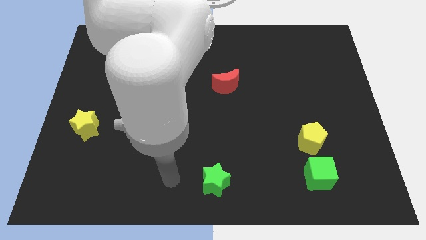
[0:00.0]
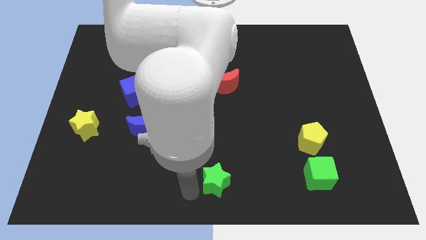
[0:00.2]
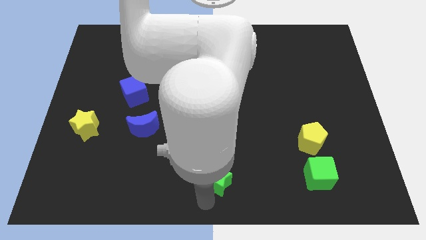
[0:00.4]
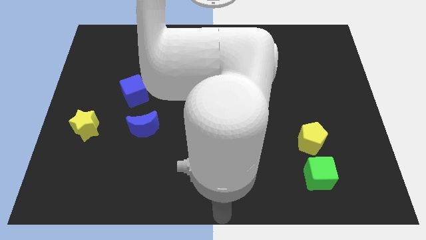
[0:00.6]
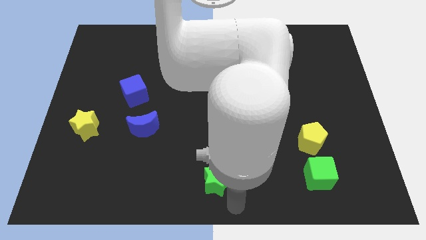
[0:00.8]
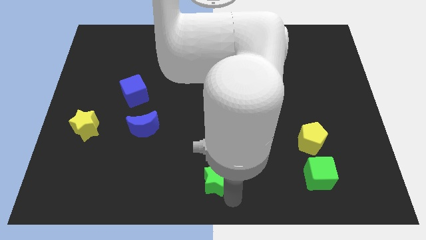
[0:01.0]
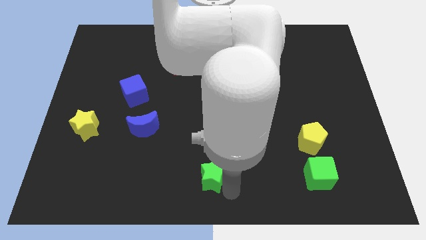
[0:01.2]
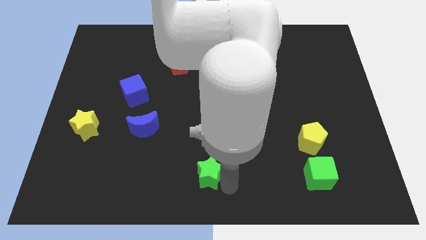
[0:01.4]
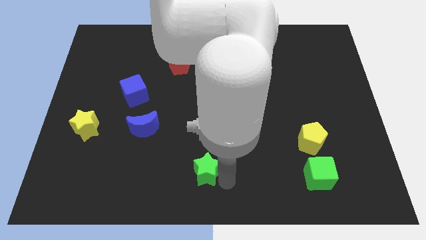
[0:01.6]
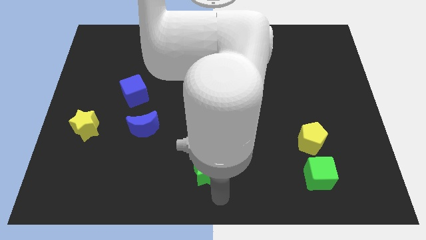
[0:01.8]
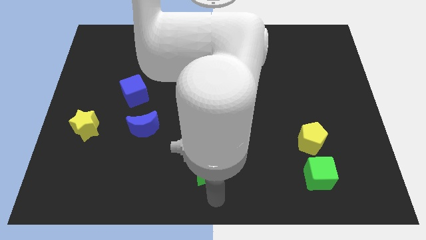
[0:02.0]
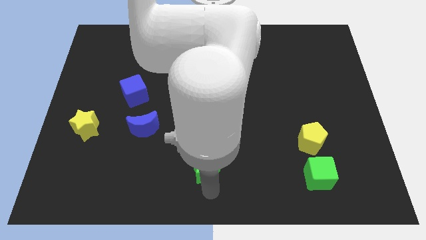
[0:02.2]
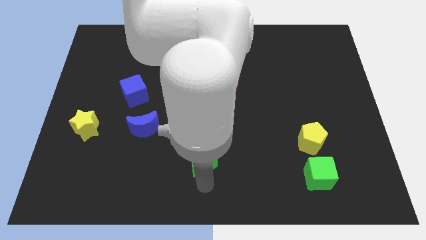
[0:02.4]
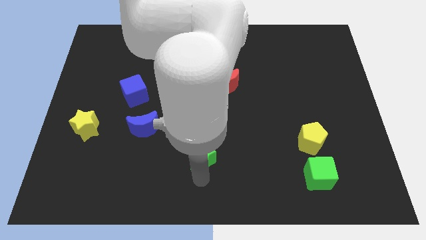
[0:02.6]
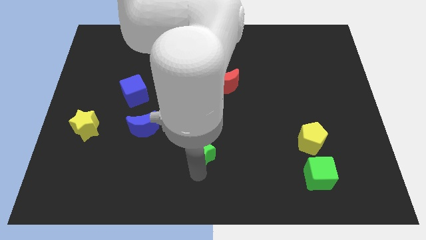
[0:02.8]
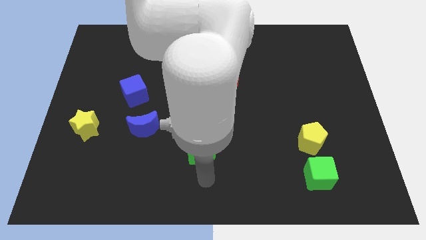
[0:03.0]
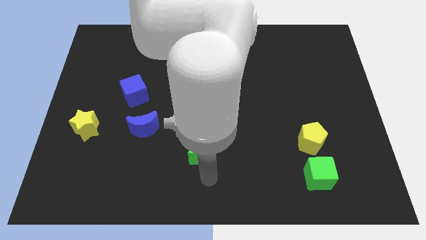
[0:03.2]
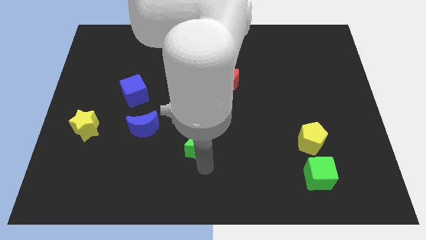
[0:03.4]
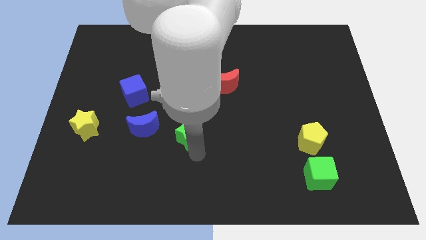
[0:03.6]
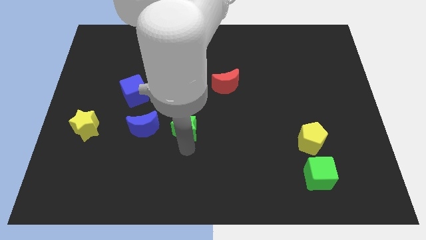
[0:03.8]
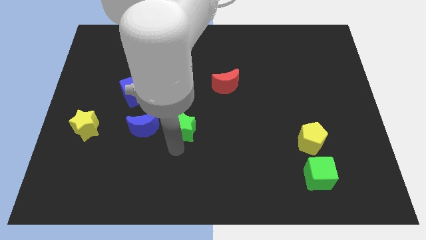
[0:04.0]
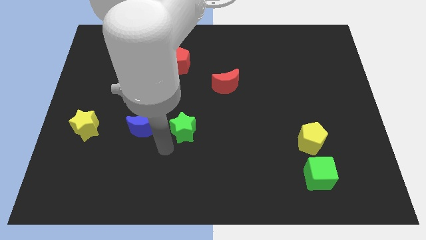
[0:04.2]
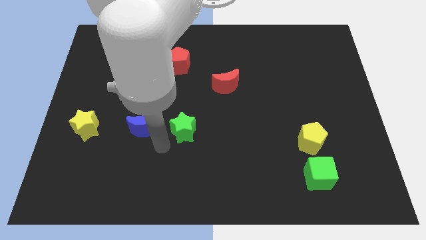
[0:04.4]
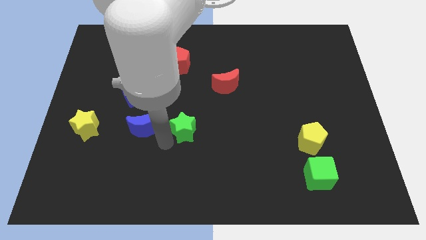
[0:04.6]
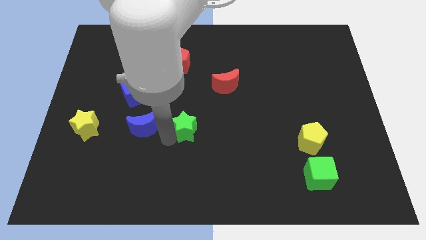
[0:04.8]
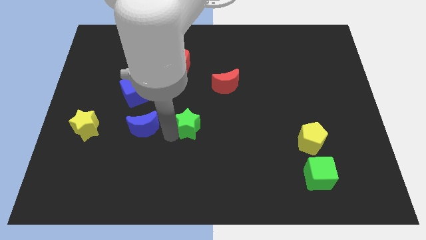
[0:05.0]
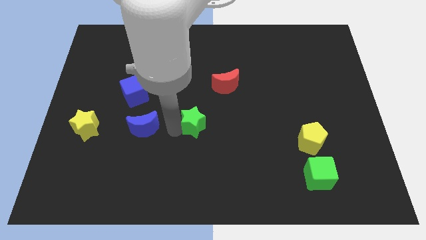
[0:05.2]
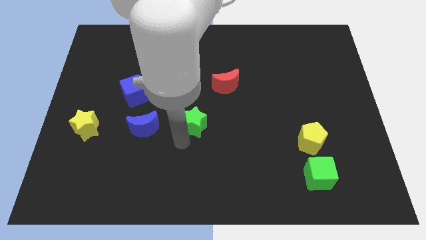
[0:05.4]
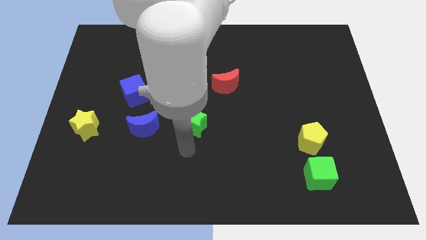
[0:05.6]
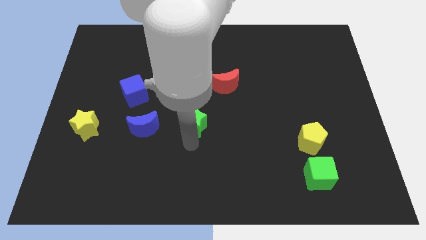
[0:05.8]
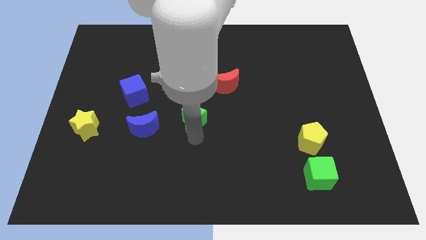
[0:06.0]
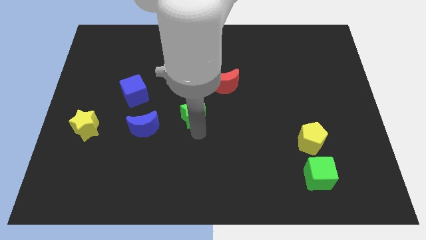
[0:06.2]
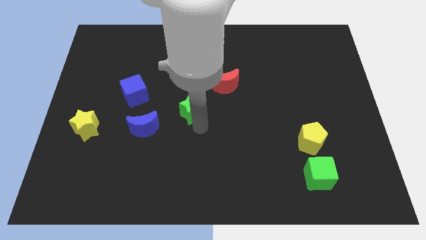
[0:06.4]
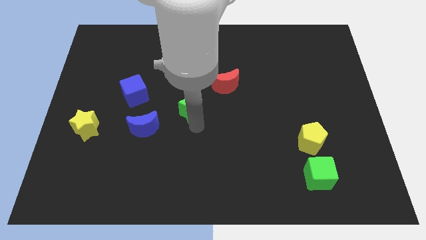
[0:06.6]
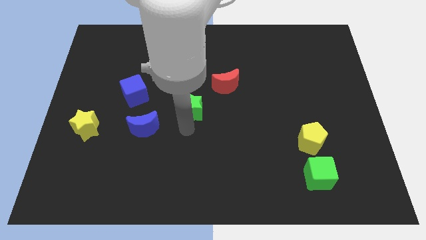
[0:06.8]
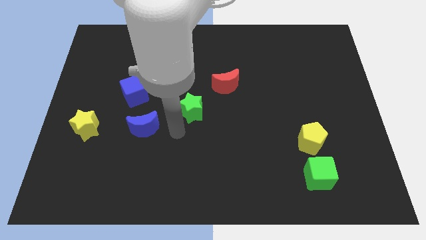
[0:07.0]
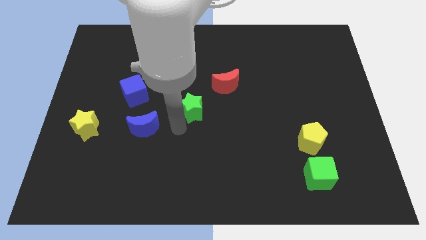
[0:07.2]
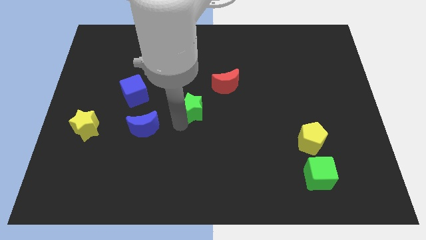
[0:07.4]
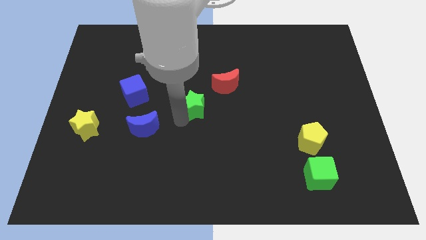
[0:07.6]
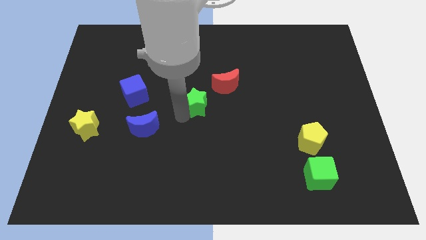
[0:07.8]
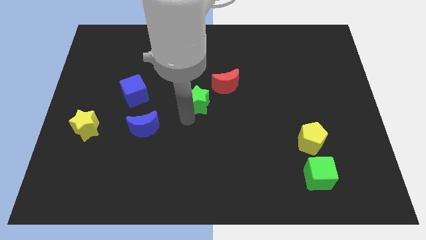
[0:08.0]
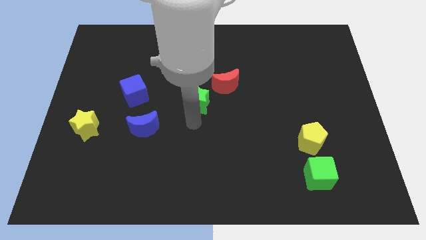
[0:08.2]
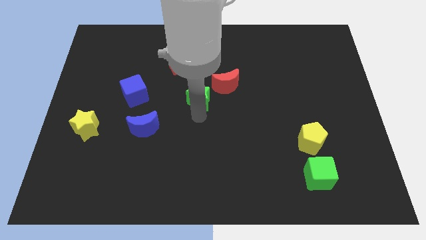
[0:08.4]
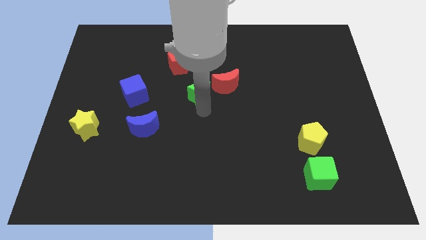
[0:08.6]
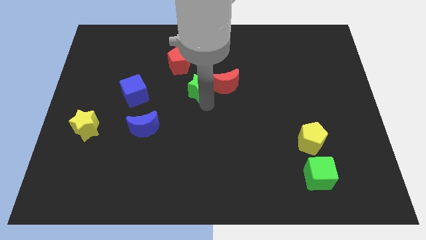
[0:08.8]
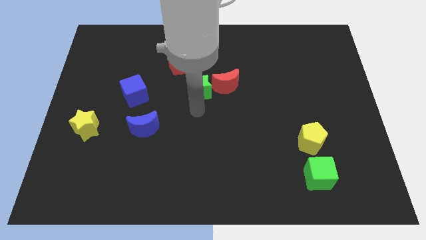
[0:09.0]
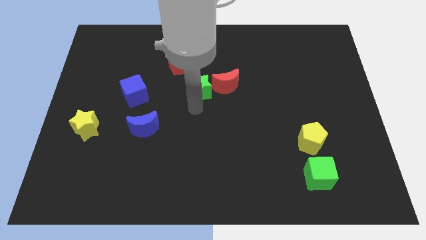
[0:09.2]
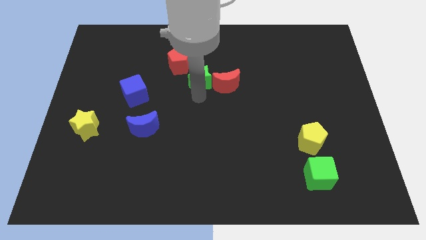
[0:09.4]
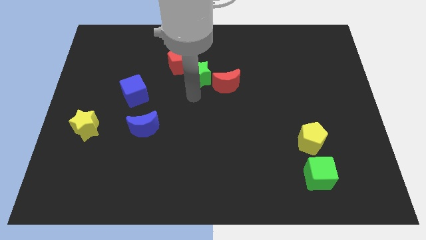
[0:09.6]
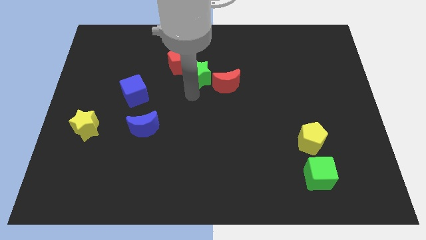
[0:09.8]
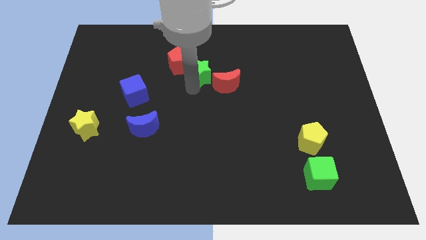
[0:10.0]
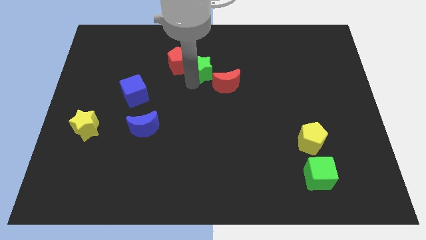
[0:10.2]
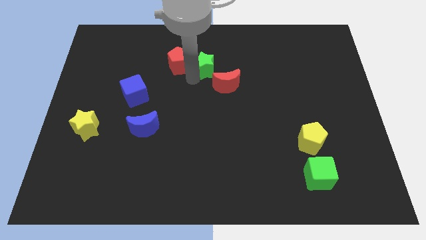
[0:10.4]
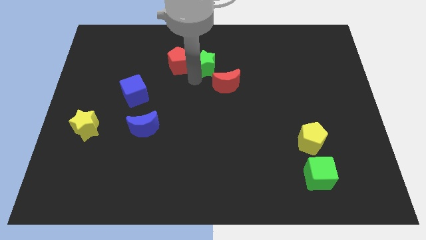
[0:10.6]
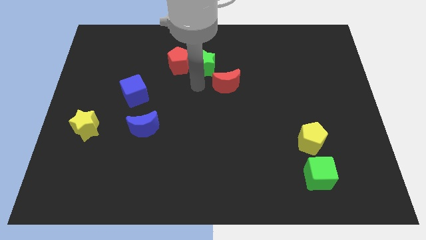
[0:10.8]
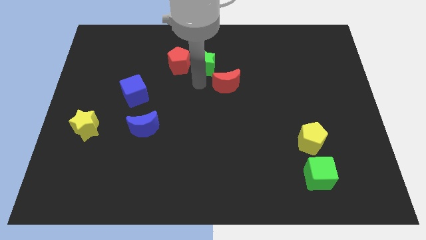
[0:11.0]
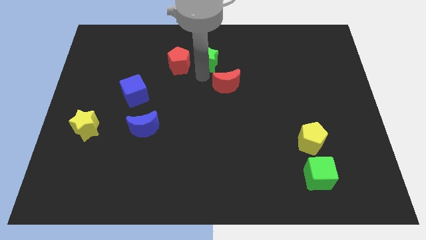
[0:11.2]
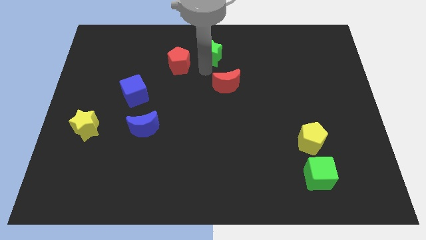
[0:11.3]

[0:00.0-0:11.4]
move the green star to the towards your base

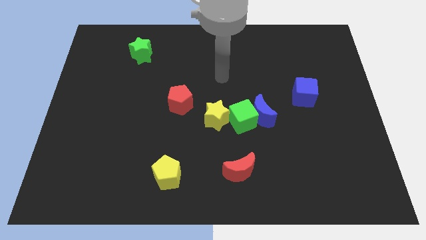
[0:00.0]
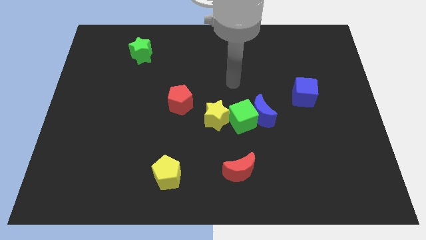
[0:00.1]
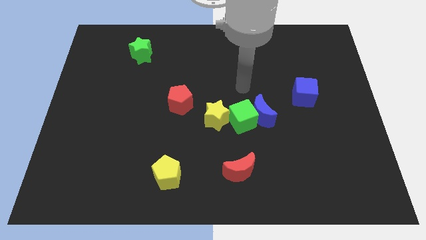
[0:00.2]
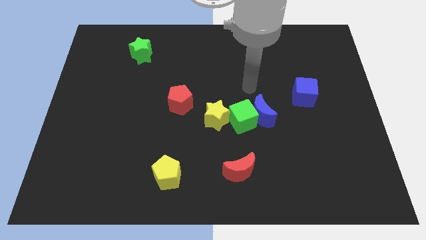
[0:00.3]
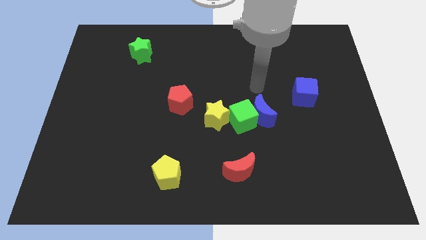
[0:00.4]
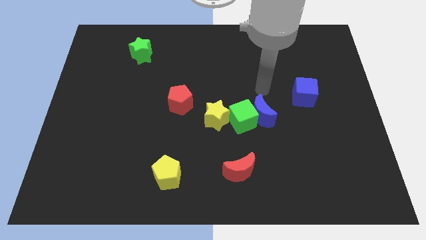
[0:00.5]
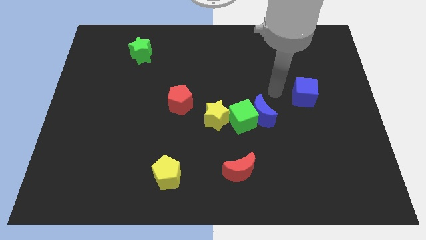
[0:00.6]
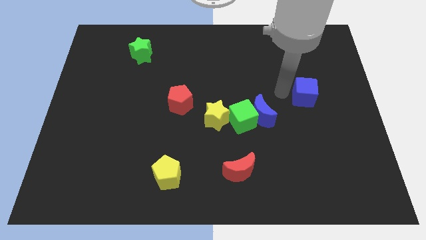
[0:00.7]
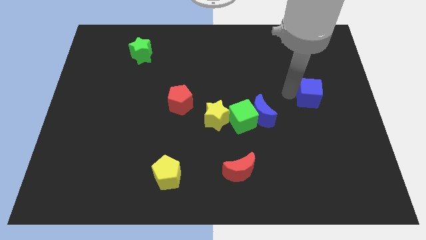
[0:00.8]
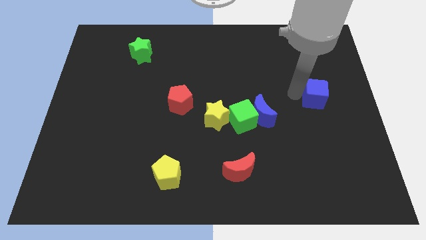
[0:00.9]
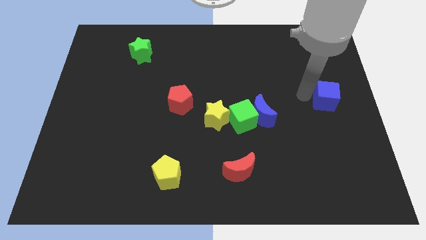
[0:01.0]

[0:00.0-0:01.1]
move the blue cube to the center right

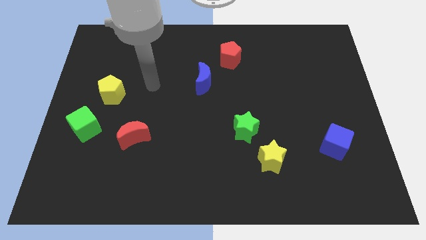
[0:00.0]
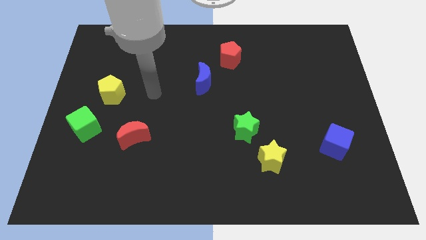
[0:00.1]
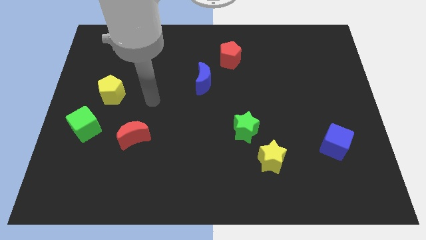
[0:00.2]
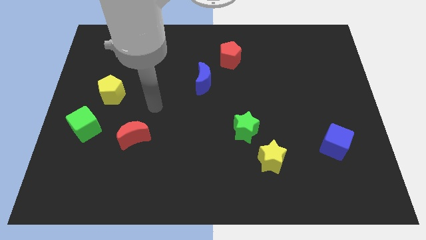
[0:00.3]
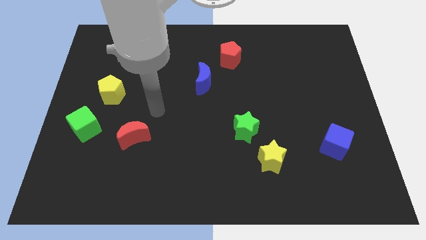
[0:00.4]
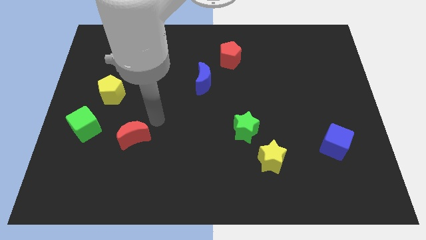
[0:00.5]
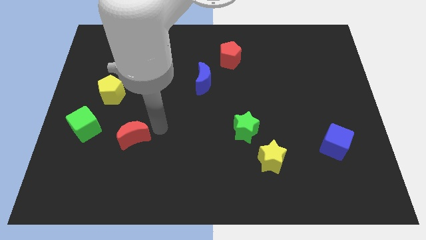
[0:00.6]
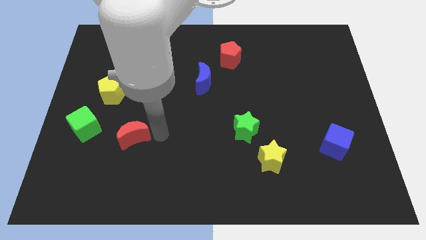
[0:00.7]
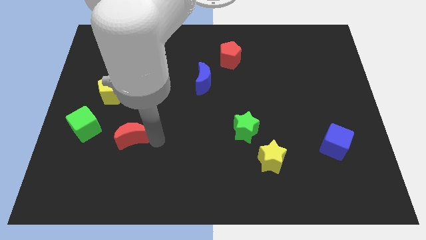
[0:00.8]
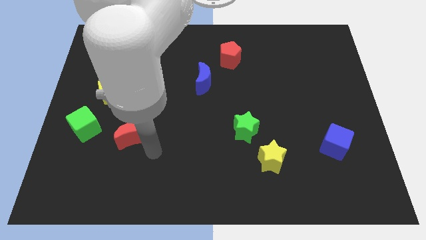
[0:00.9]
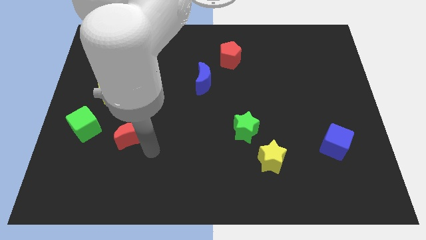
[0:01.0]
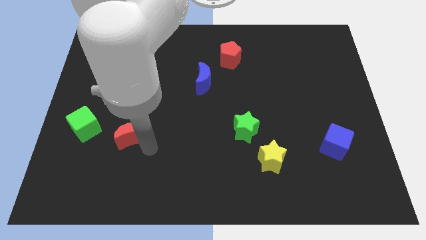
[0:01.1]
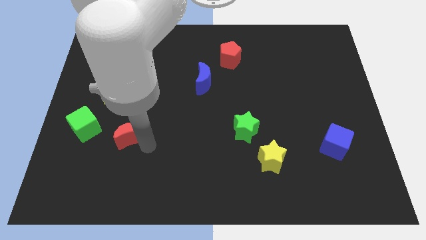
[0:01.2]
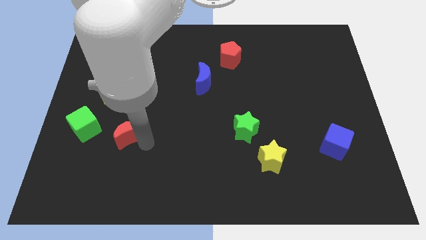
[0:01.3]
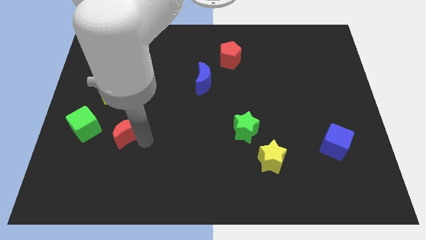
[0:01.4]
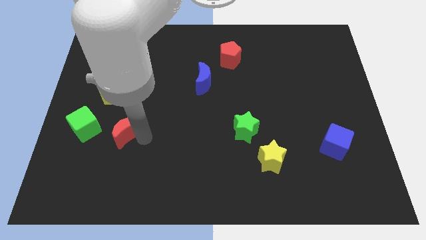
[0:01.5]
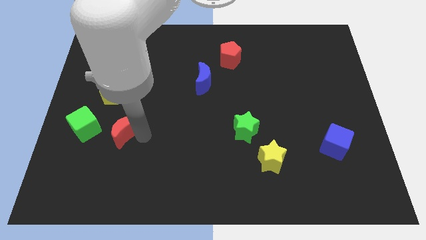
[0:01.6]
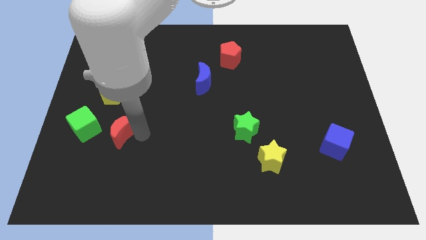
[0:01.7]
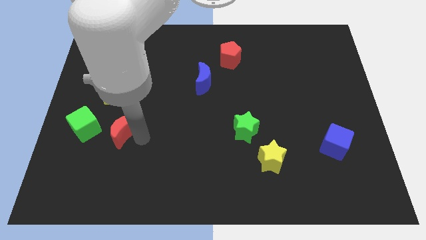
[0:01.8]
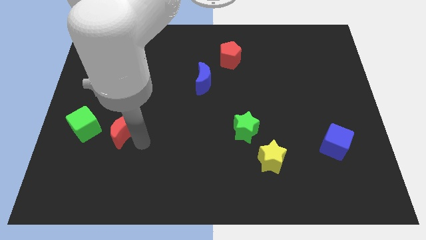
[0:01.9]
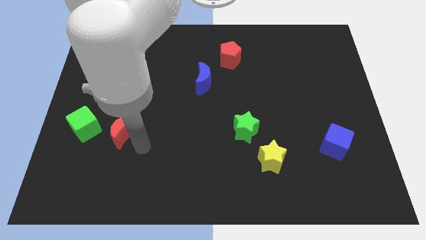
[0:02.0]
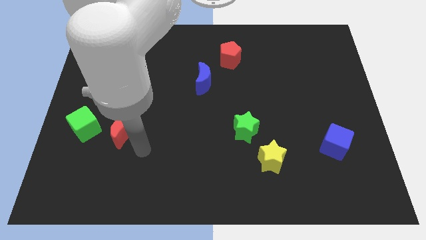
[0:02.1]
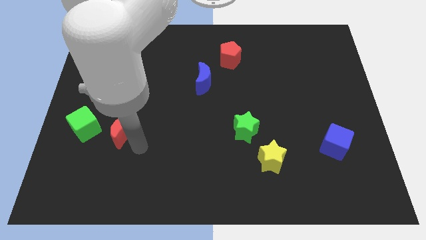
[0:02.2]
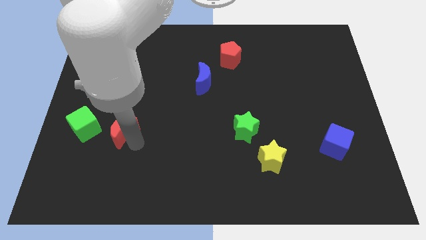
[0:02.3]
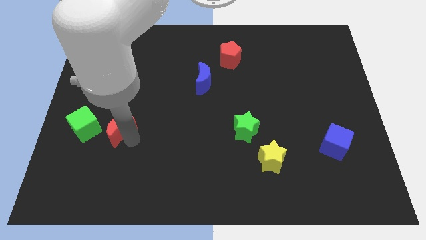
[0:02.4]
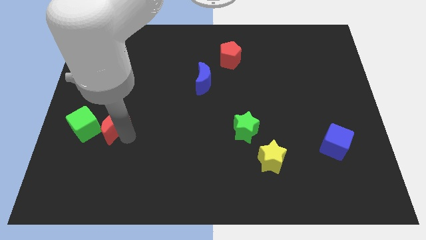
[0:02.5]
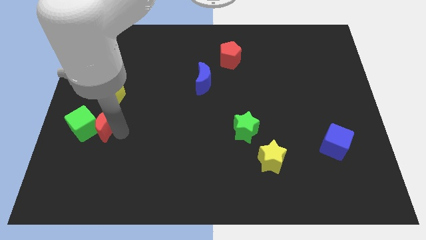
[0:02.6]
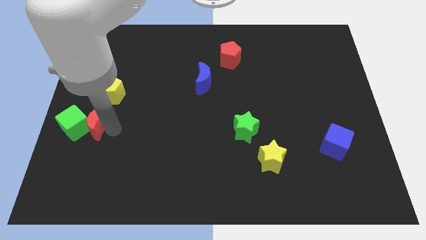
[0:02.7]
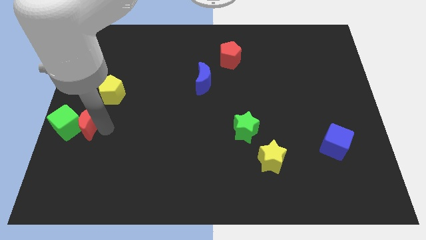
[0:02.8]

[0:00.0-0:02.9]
move the red moon to the left side of the board
